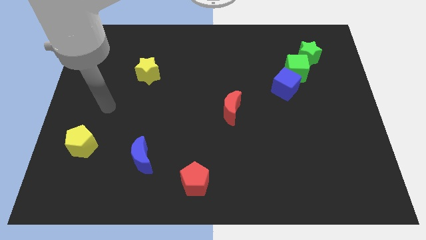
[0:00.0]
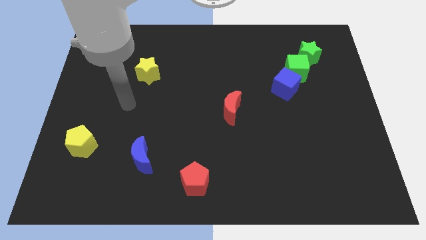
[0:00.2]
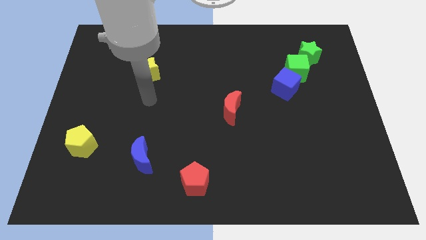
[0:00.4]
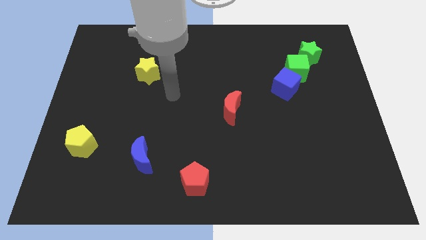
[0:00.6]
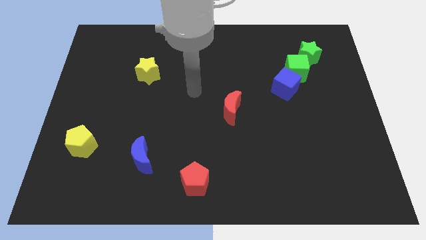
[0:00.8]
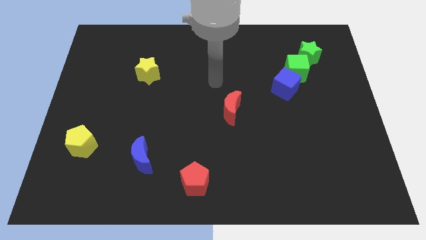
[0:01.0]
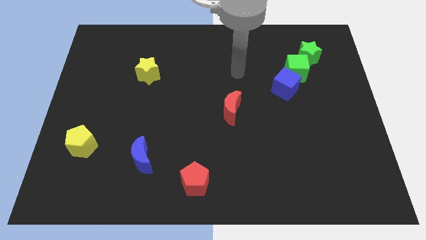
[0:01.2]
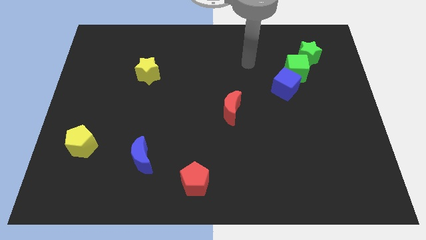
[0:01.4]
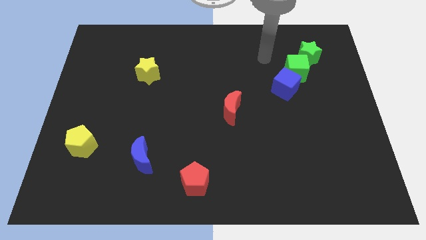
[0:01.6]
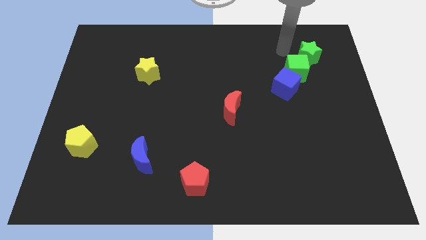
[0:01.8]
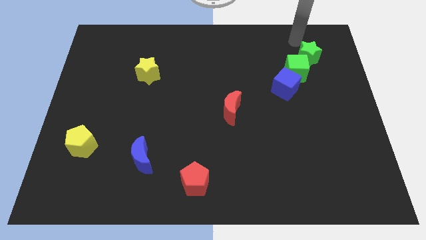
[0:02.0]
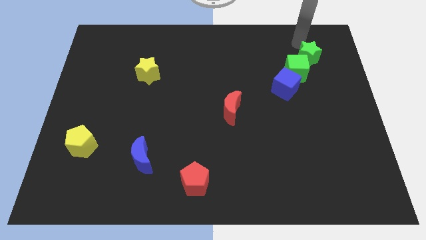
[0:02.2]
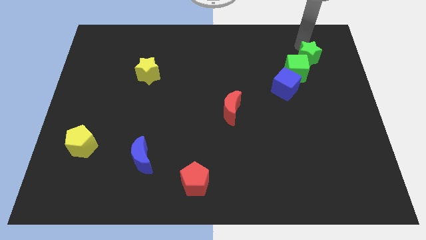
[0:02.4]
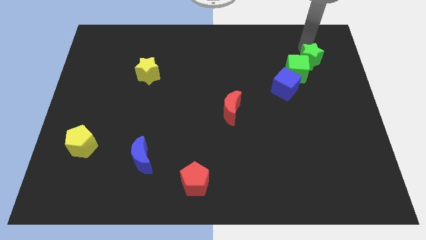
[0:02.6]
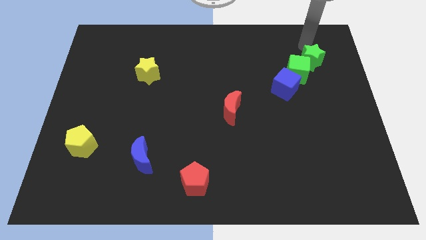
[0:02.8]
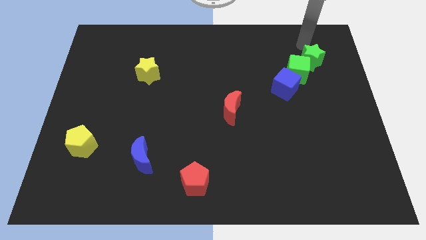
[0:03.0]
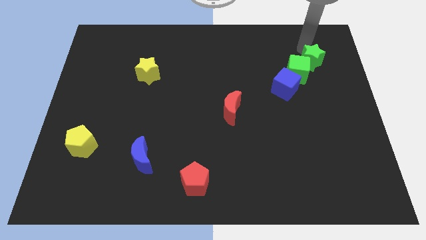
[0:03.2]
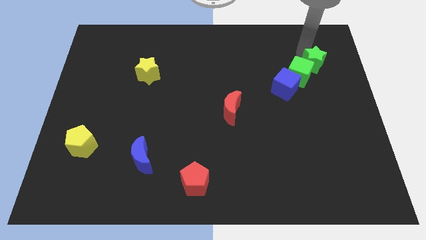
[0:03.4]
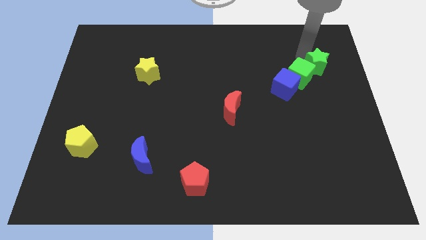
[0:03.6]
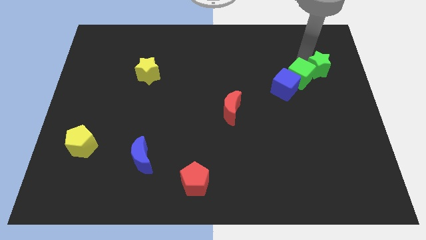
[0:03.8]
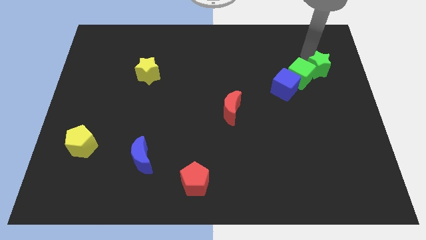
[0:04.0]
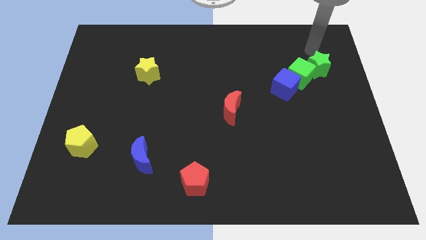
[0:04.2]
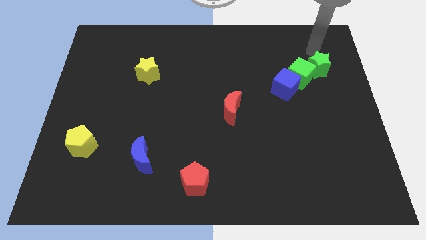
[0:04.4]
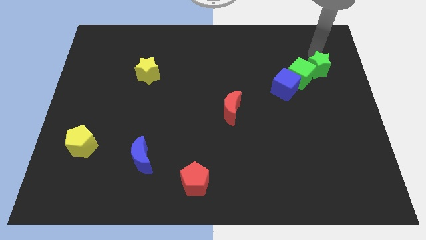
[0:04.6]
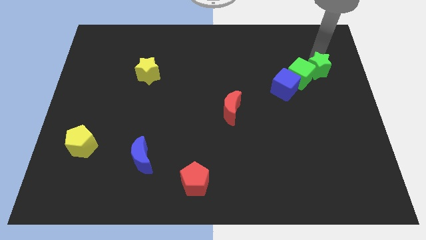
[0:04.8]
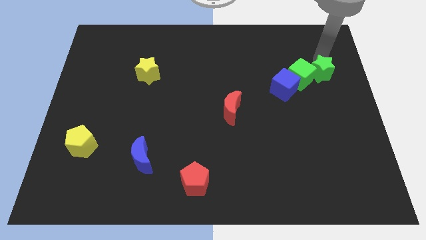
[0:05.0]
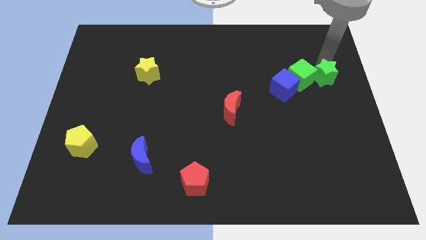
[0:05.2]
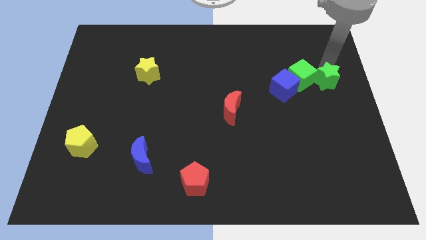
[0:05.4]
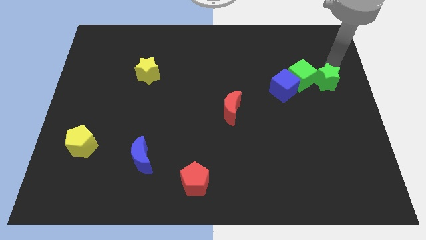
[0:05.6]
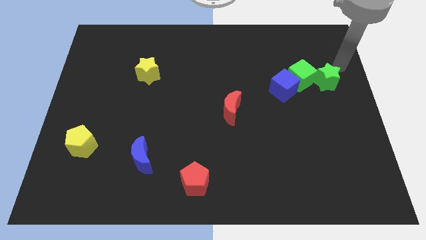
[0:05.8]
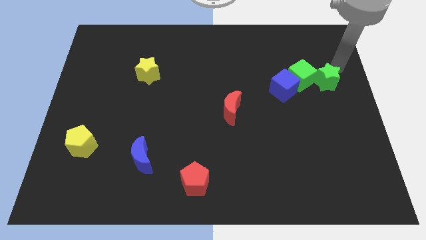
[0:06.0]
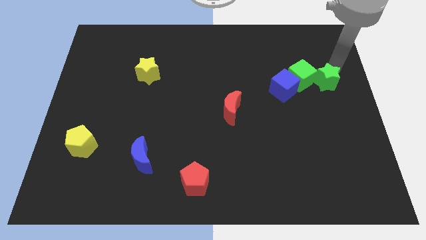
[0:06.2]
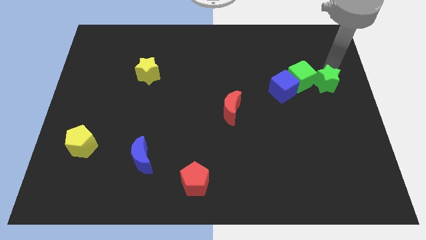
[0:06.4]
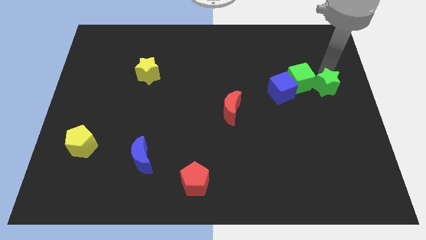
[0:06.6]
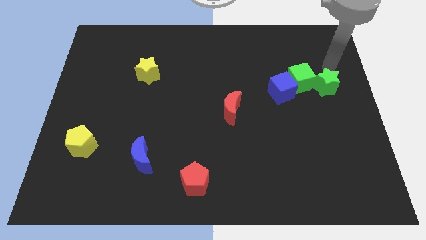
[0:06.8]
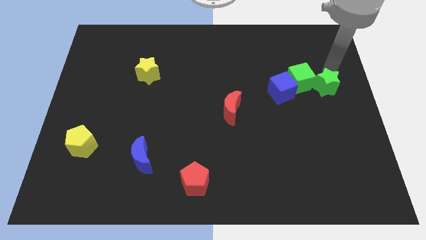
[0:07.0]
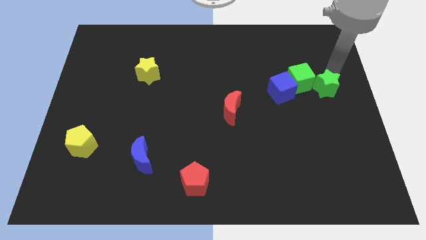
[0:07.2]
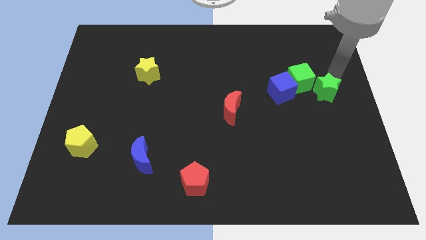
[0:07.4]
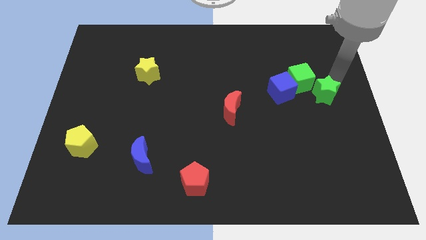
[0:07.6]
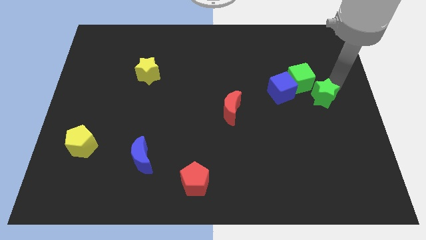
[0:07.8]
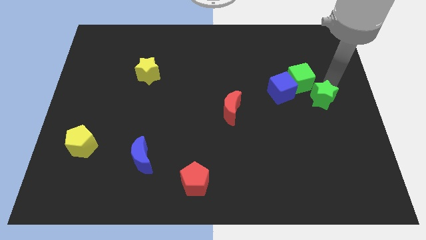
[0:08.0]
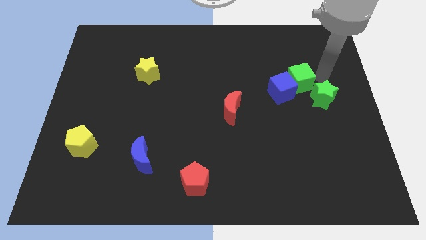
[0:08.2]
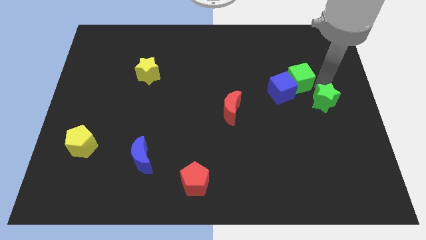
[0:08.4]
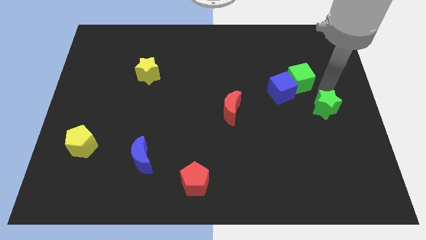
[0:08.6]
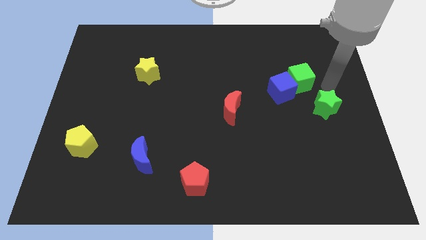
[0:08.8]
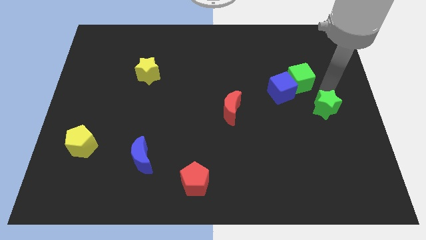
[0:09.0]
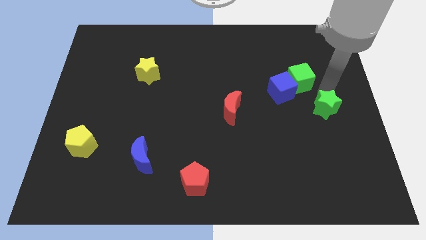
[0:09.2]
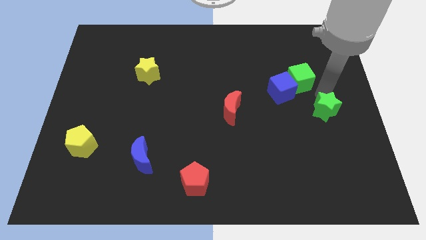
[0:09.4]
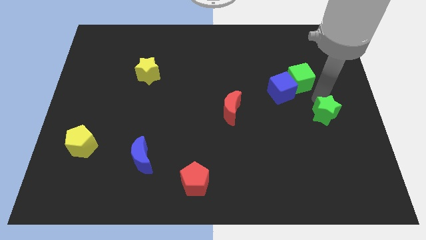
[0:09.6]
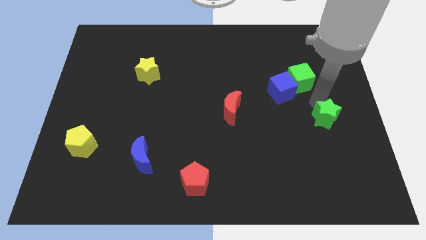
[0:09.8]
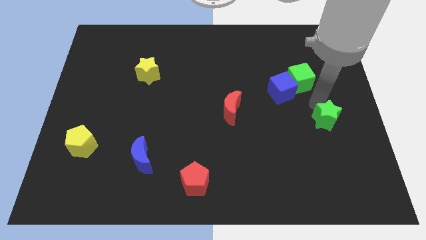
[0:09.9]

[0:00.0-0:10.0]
move the green star downwards

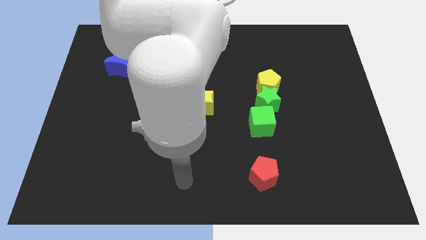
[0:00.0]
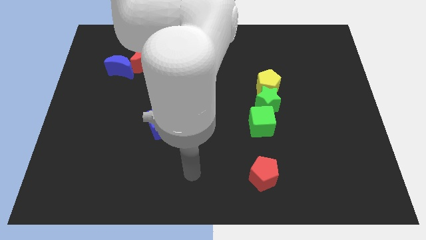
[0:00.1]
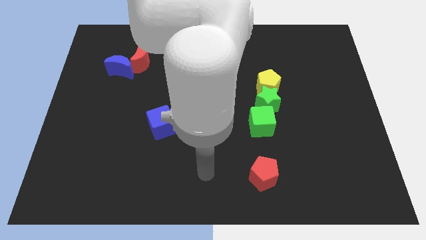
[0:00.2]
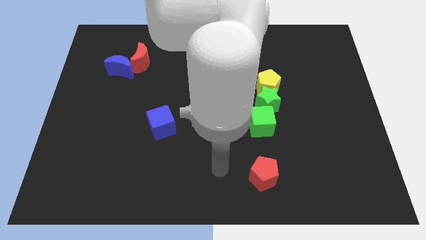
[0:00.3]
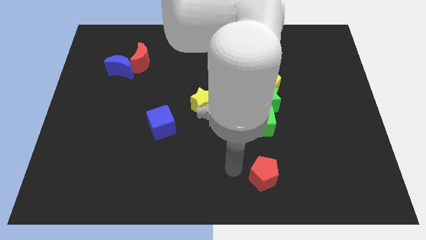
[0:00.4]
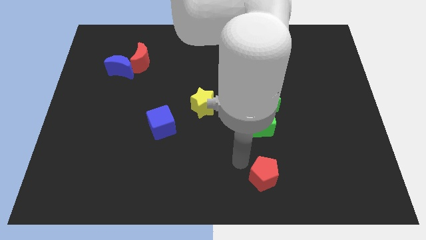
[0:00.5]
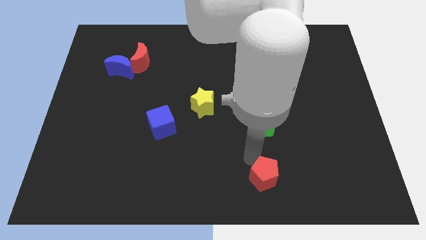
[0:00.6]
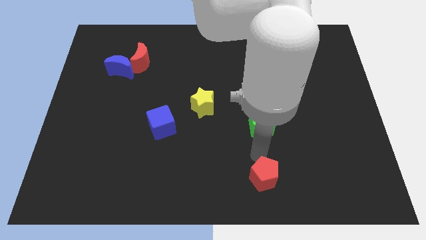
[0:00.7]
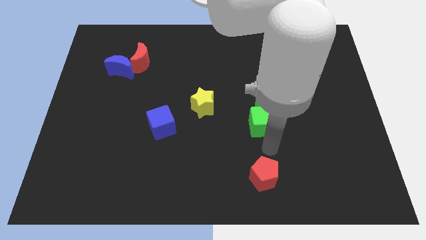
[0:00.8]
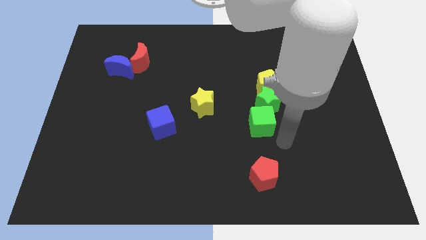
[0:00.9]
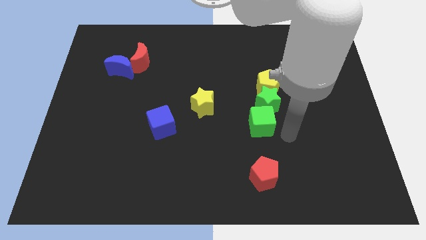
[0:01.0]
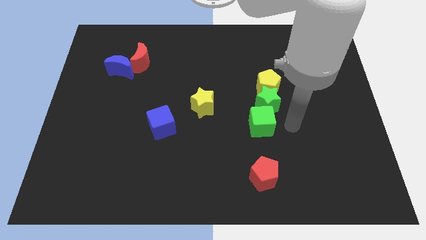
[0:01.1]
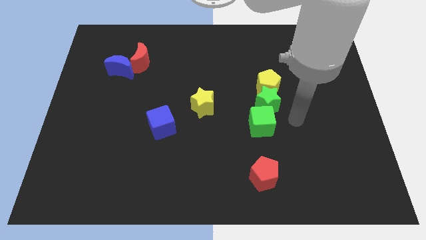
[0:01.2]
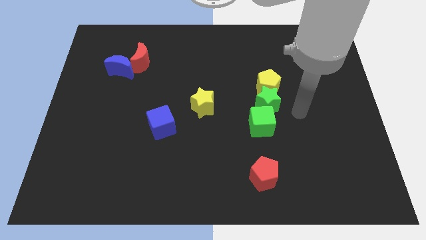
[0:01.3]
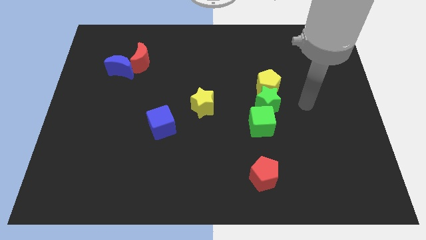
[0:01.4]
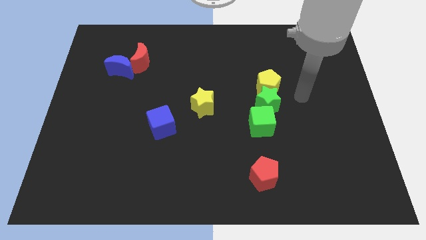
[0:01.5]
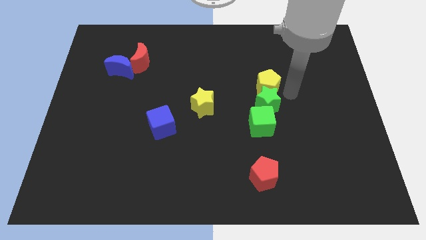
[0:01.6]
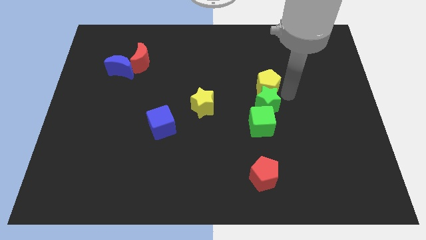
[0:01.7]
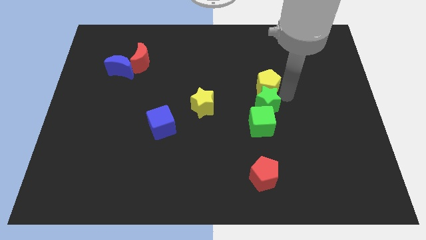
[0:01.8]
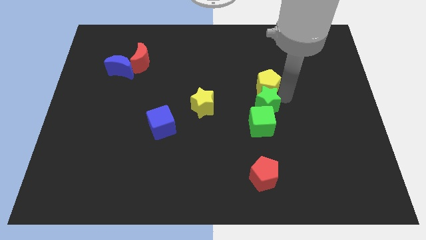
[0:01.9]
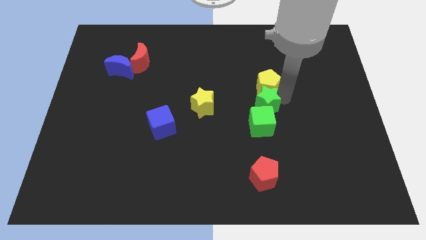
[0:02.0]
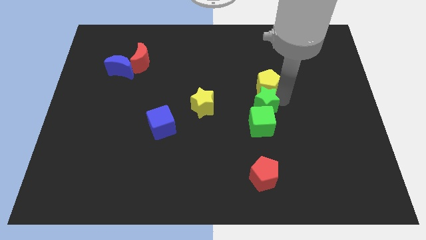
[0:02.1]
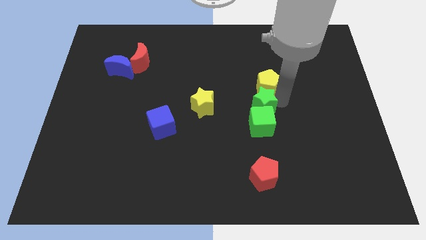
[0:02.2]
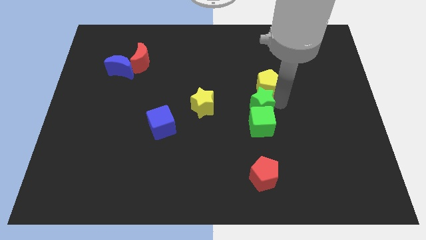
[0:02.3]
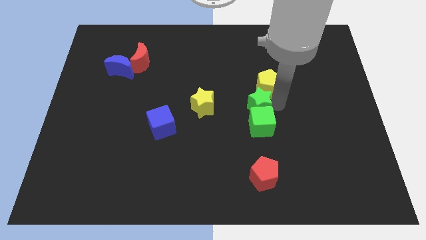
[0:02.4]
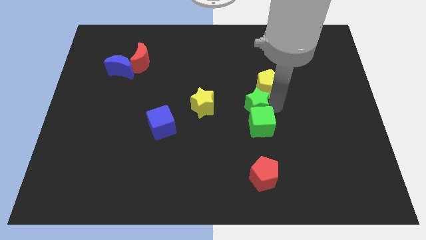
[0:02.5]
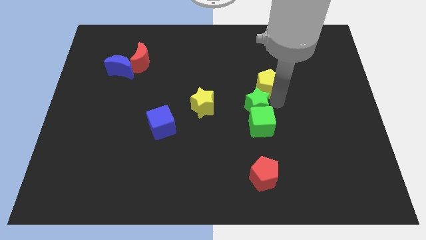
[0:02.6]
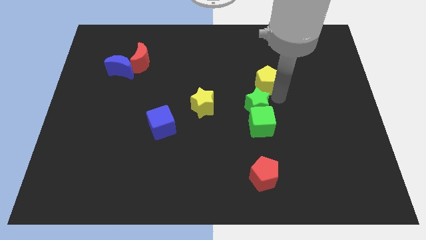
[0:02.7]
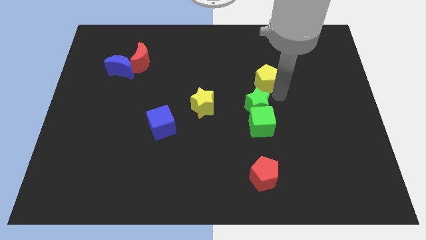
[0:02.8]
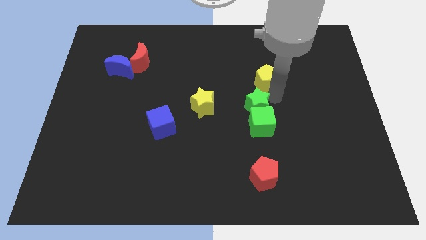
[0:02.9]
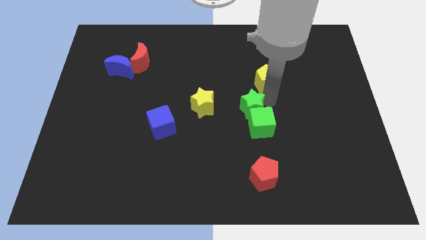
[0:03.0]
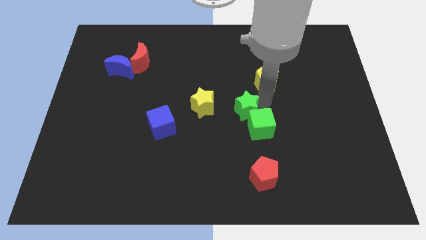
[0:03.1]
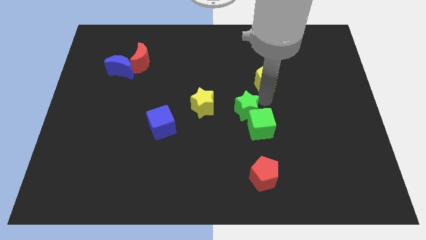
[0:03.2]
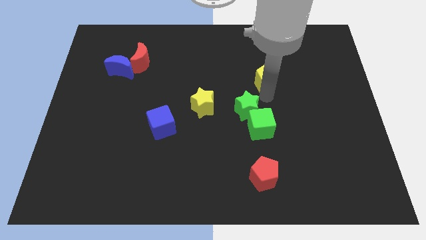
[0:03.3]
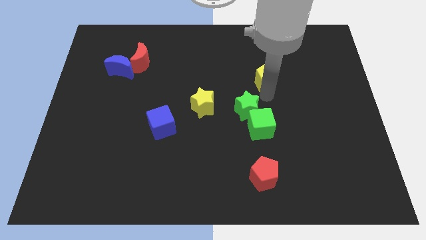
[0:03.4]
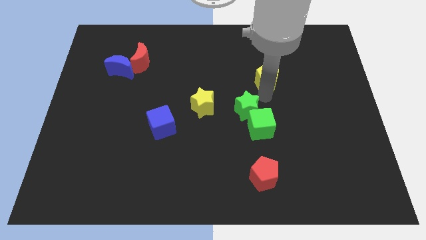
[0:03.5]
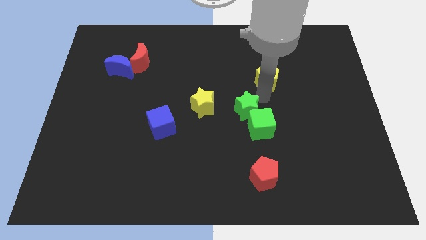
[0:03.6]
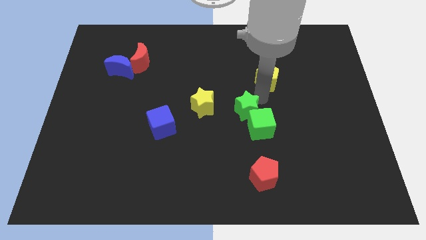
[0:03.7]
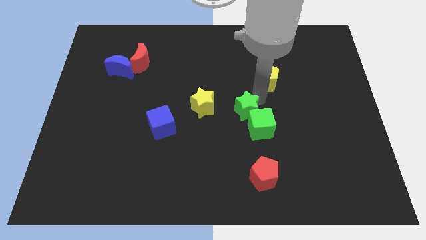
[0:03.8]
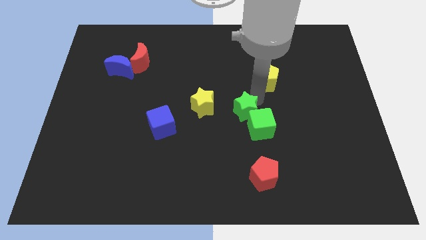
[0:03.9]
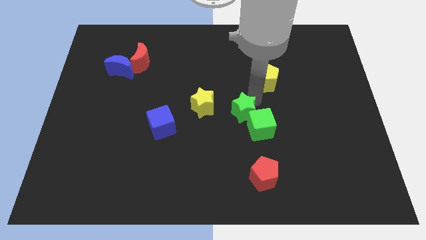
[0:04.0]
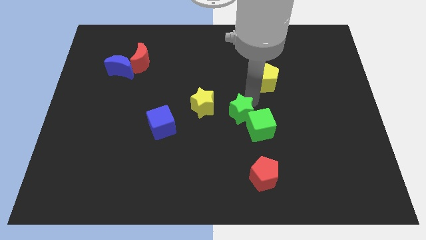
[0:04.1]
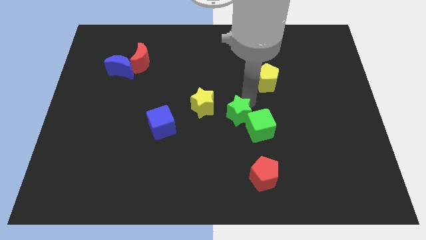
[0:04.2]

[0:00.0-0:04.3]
move the green star a bit downwards and left
